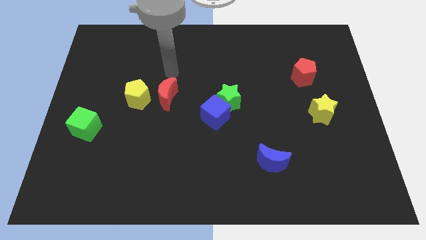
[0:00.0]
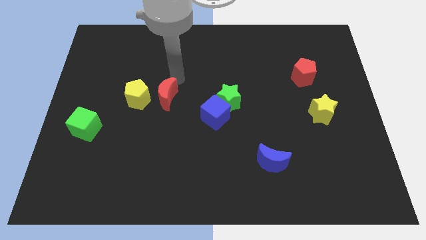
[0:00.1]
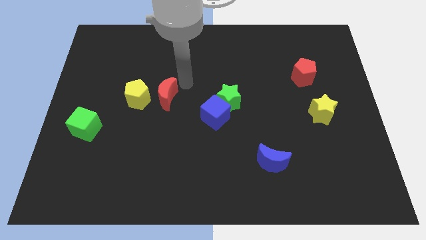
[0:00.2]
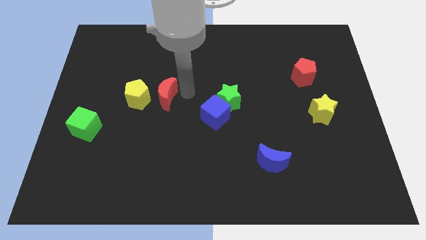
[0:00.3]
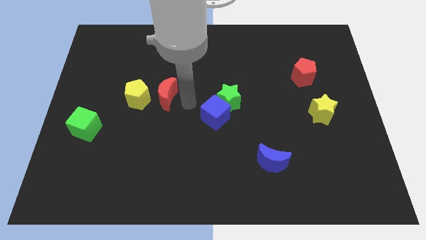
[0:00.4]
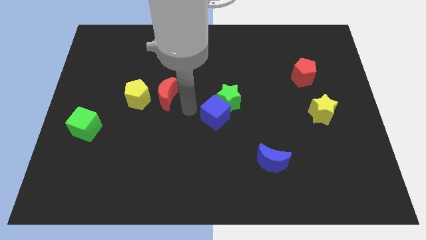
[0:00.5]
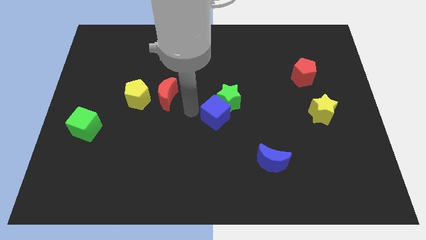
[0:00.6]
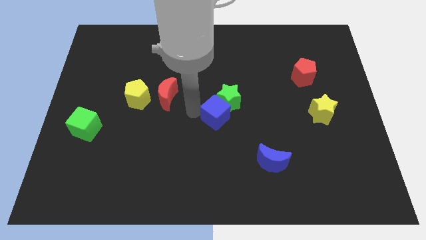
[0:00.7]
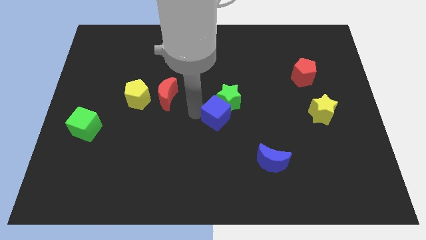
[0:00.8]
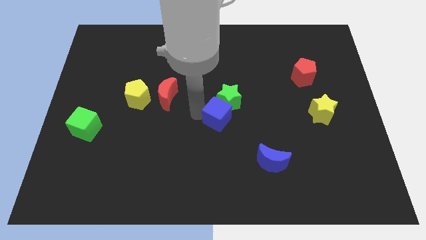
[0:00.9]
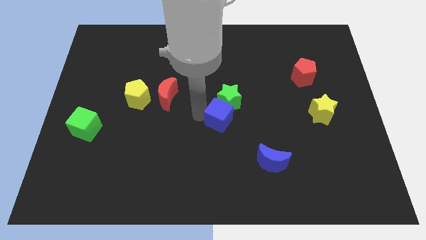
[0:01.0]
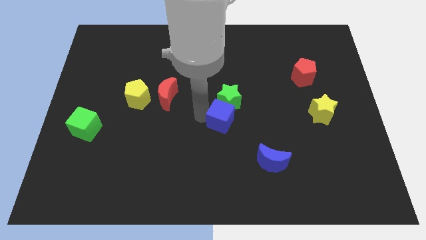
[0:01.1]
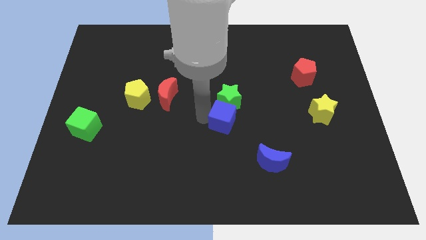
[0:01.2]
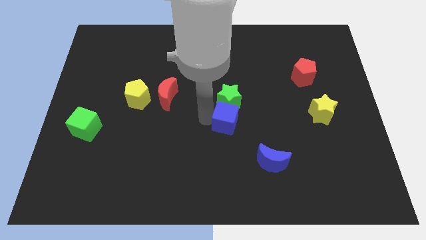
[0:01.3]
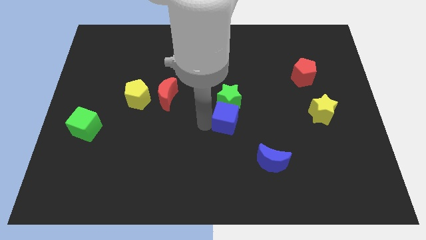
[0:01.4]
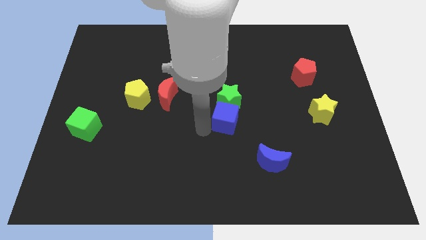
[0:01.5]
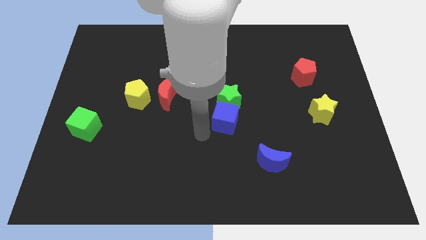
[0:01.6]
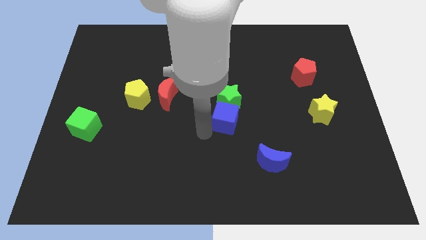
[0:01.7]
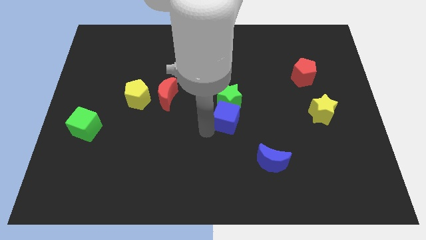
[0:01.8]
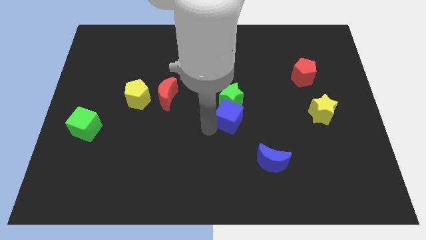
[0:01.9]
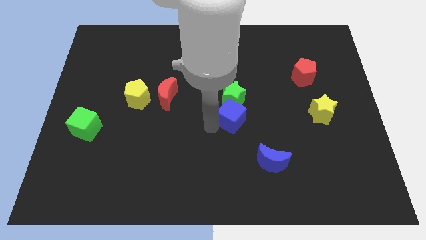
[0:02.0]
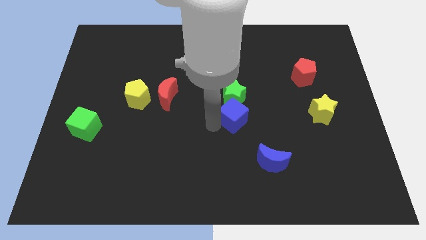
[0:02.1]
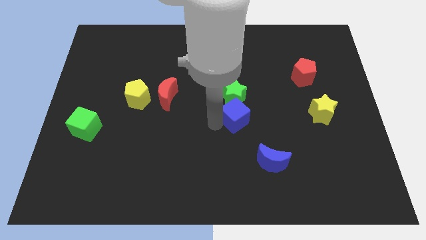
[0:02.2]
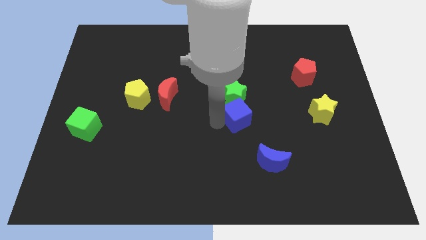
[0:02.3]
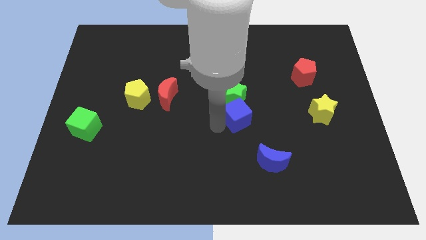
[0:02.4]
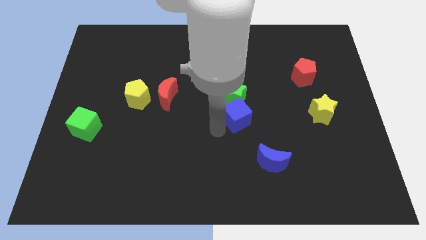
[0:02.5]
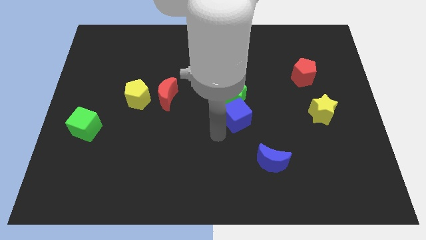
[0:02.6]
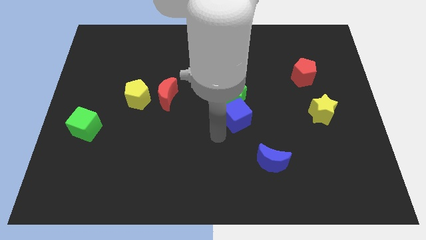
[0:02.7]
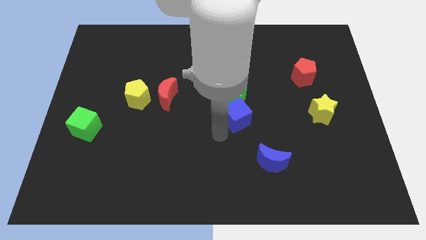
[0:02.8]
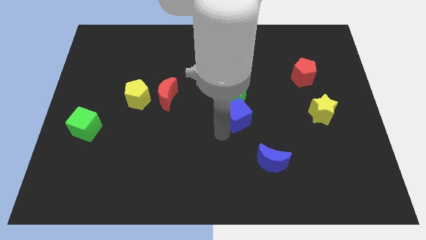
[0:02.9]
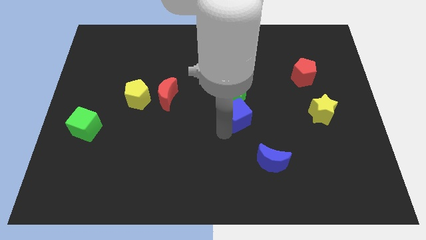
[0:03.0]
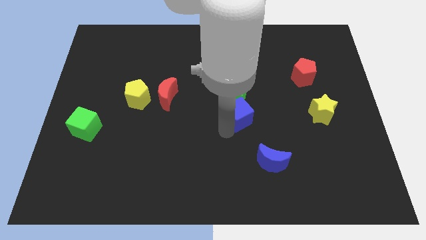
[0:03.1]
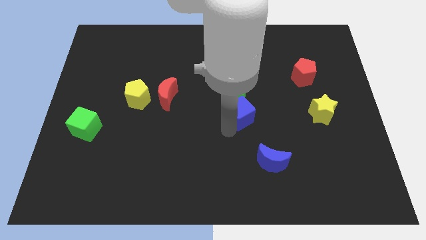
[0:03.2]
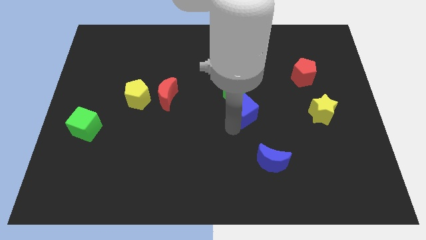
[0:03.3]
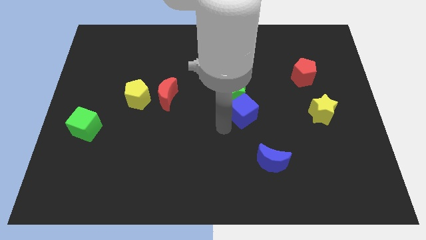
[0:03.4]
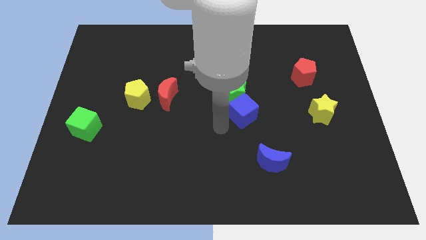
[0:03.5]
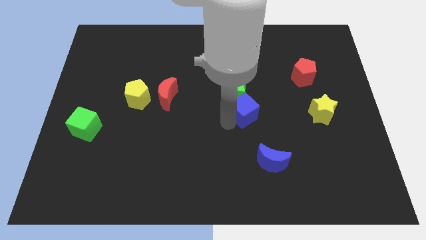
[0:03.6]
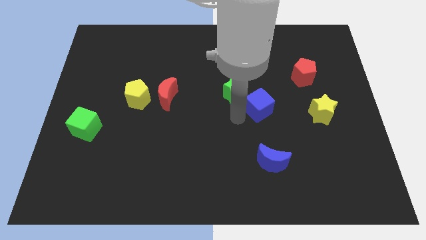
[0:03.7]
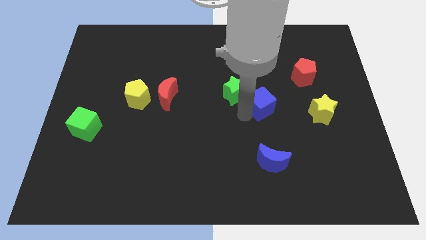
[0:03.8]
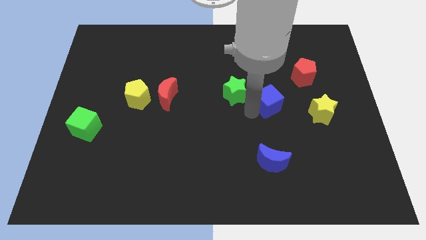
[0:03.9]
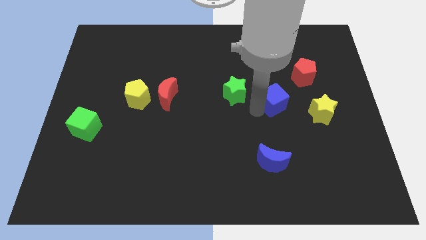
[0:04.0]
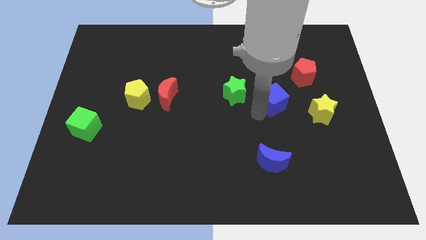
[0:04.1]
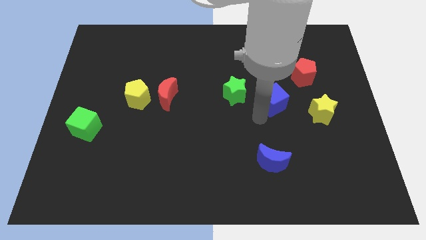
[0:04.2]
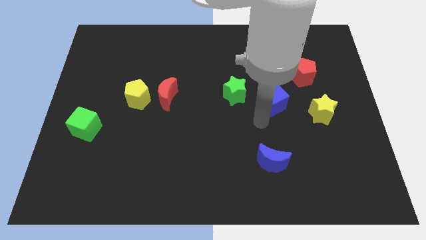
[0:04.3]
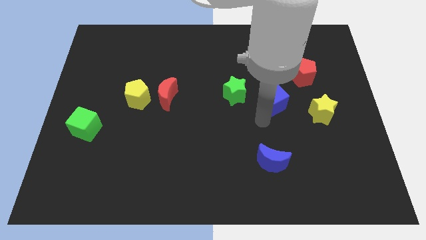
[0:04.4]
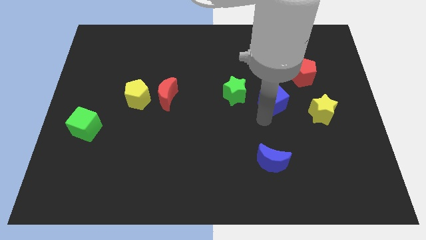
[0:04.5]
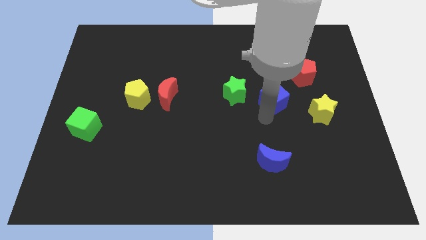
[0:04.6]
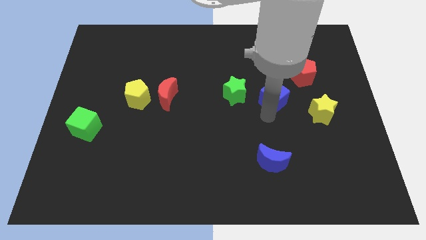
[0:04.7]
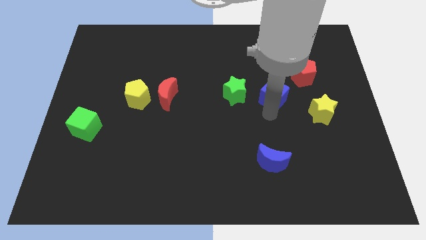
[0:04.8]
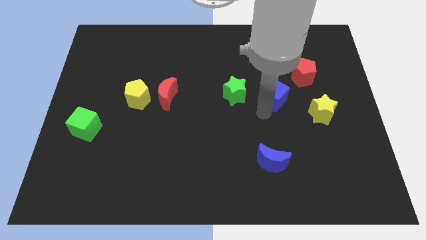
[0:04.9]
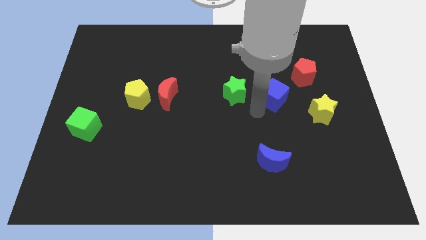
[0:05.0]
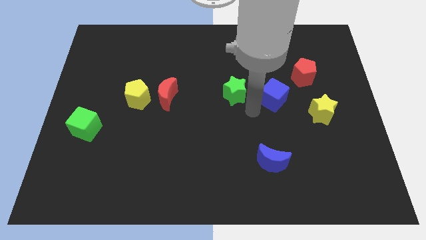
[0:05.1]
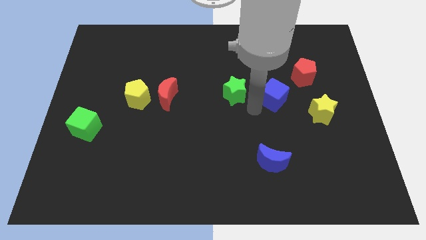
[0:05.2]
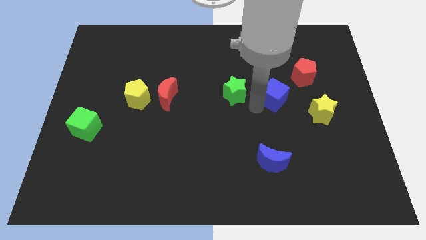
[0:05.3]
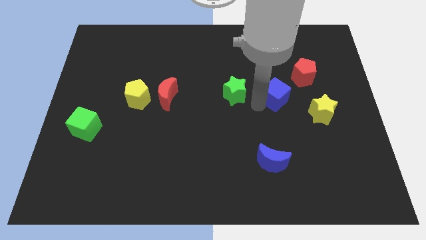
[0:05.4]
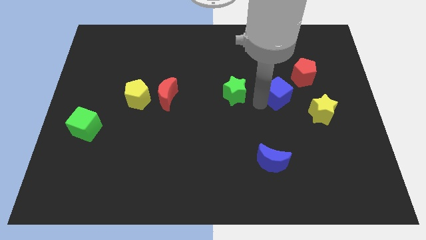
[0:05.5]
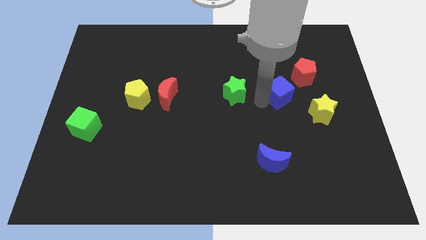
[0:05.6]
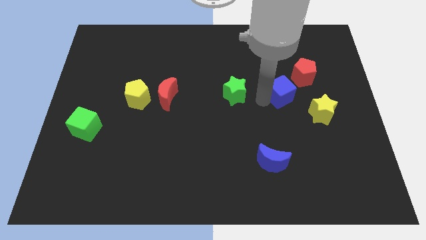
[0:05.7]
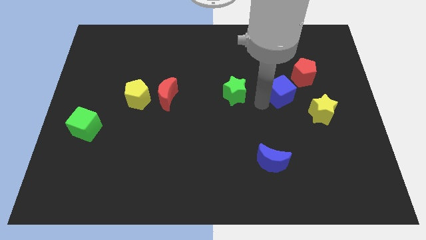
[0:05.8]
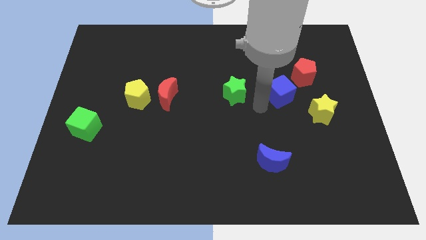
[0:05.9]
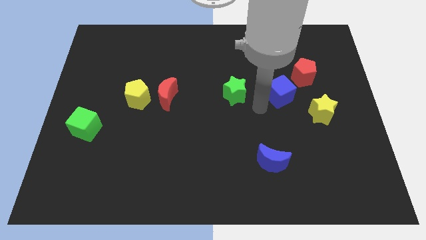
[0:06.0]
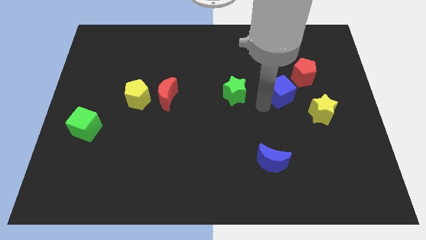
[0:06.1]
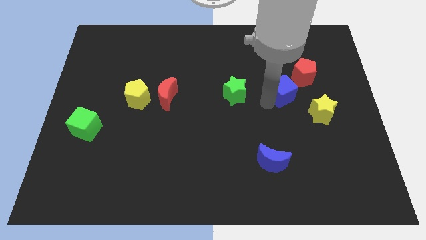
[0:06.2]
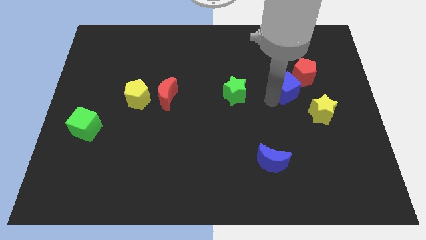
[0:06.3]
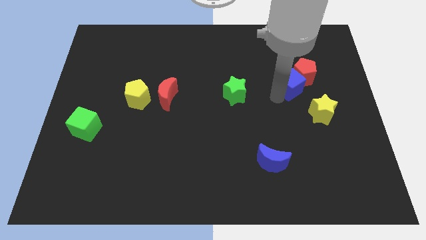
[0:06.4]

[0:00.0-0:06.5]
slide the blue cube next to the red pentagon

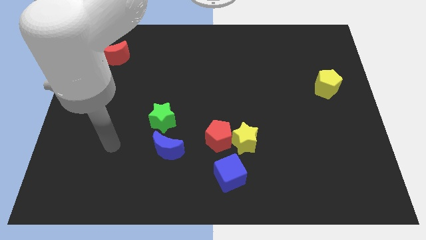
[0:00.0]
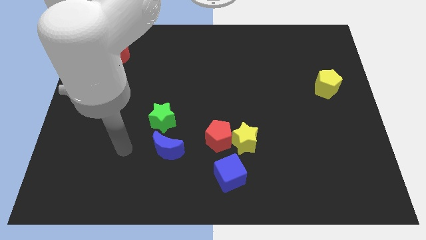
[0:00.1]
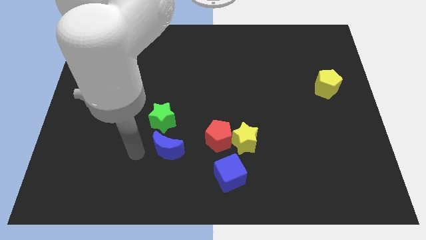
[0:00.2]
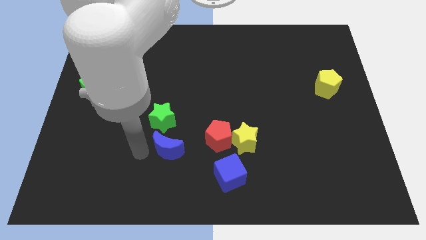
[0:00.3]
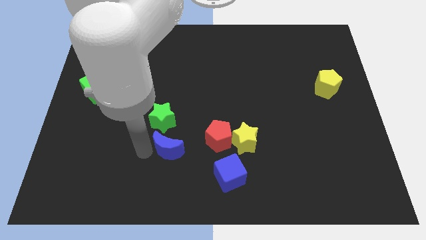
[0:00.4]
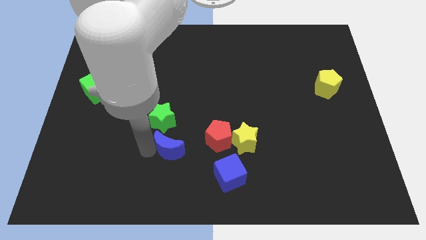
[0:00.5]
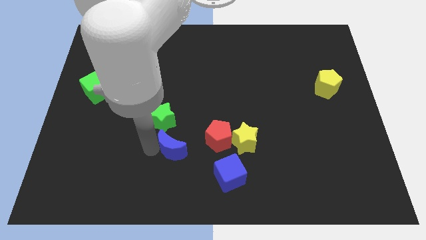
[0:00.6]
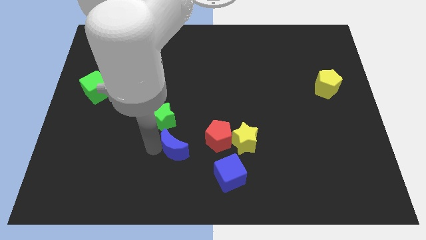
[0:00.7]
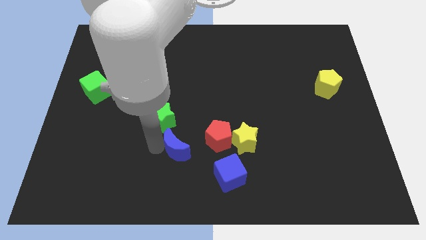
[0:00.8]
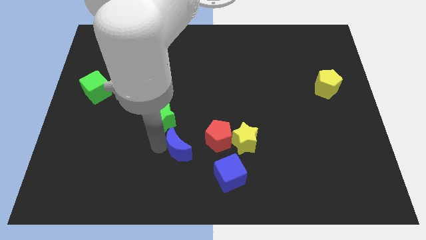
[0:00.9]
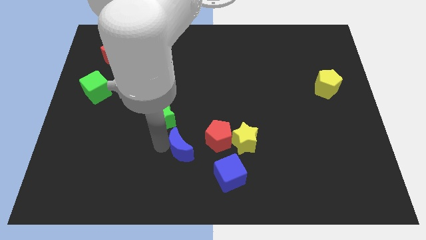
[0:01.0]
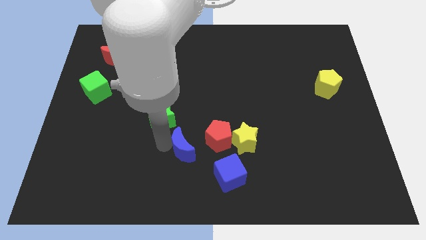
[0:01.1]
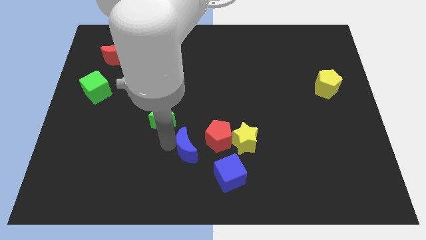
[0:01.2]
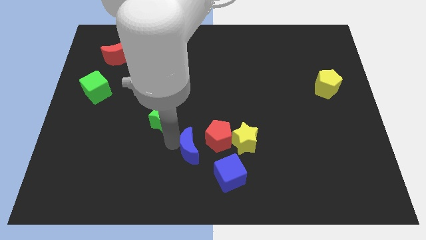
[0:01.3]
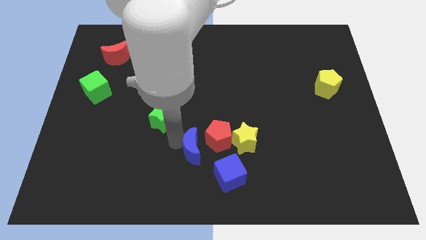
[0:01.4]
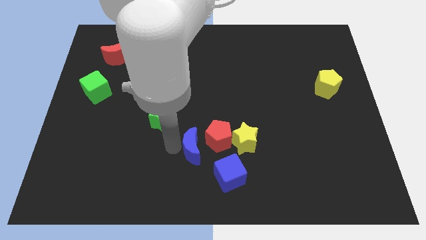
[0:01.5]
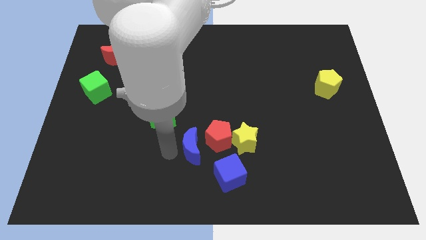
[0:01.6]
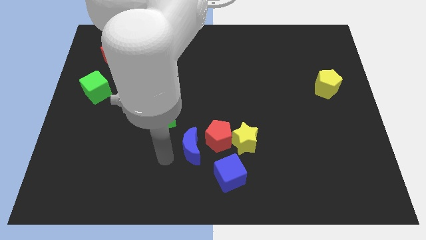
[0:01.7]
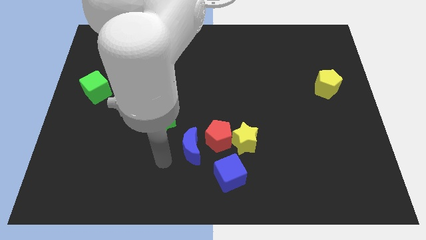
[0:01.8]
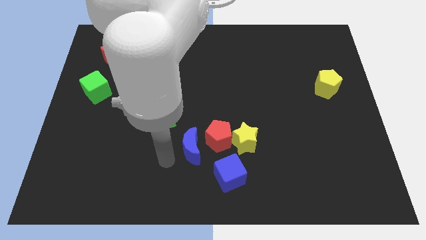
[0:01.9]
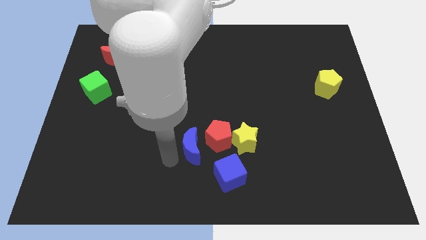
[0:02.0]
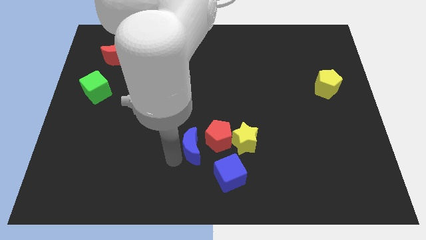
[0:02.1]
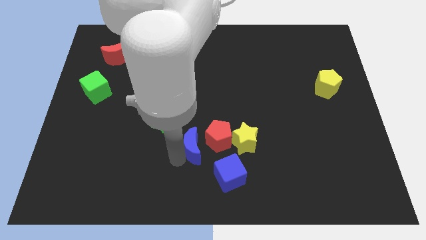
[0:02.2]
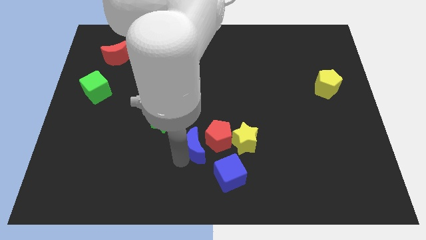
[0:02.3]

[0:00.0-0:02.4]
push the blue moon close to the red pentagon
